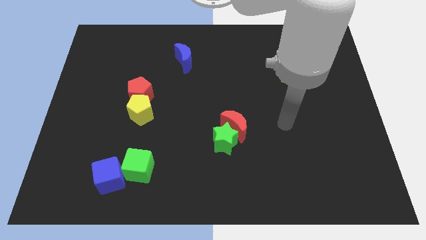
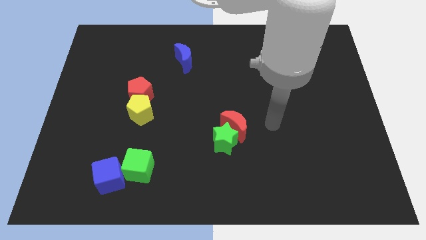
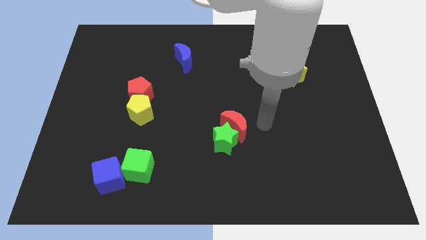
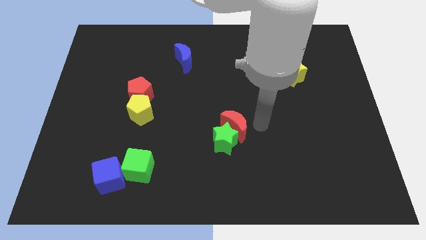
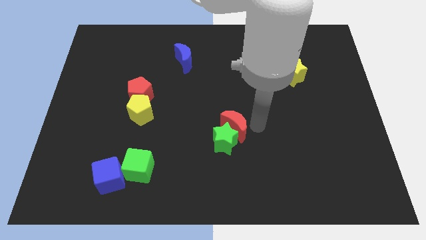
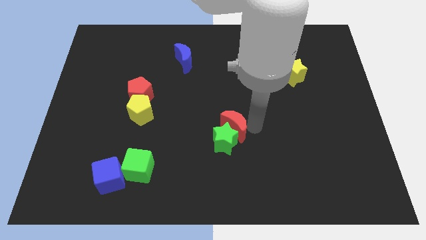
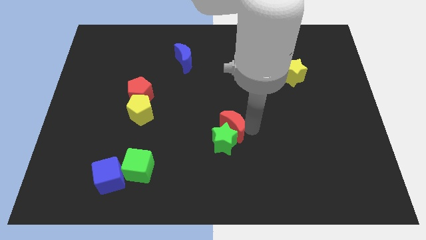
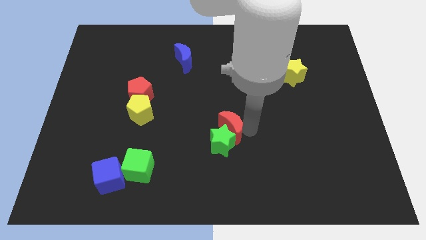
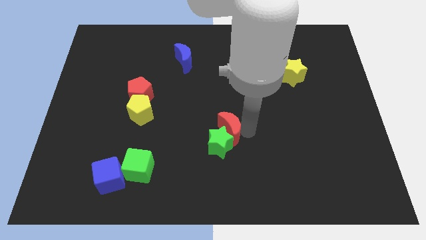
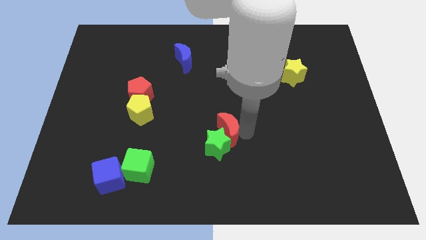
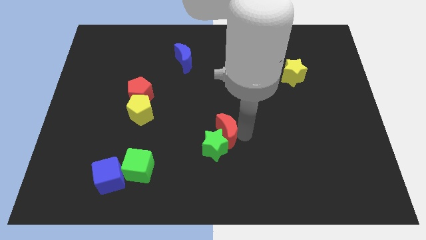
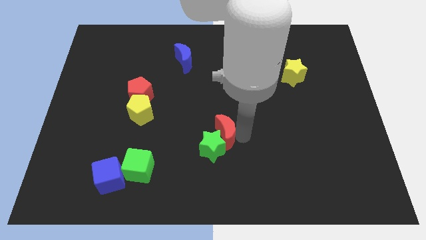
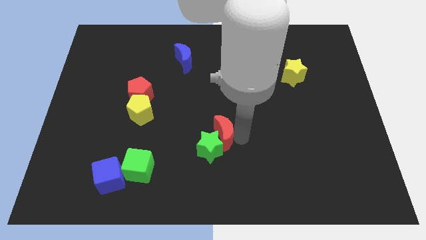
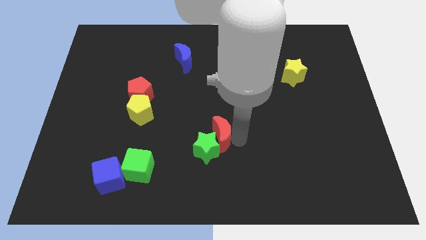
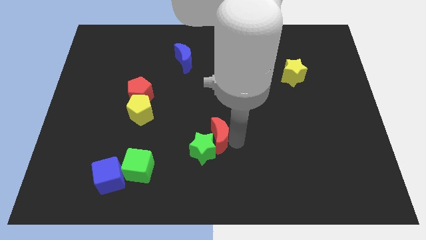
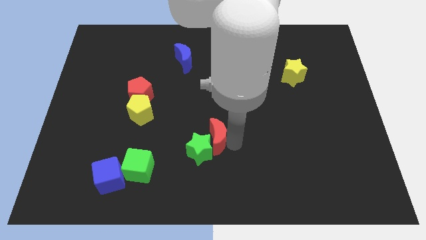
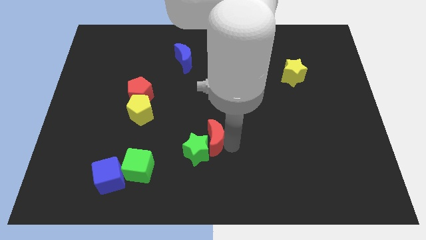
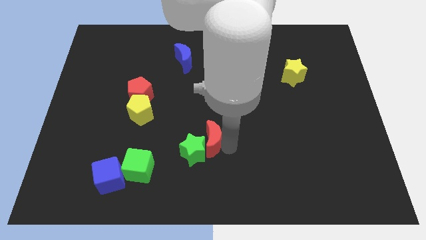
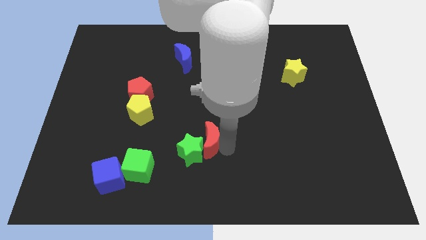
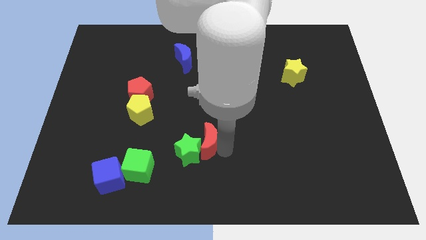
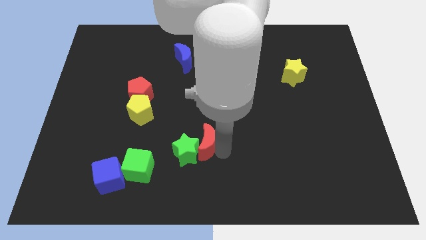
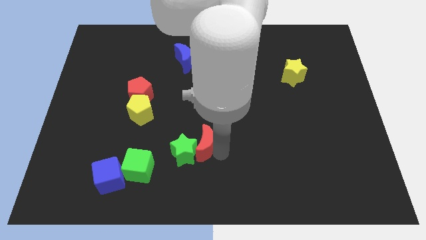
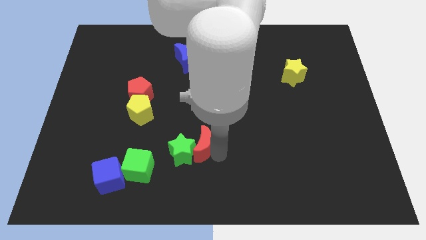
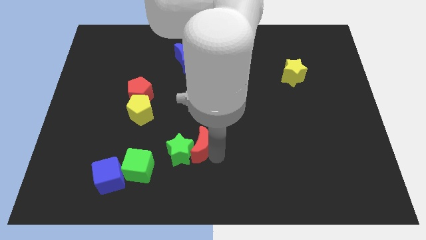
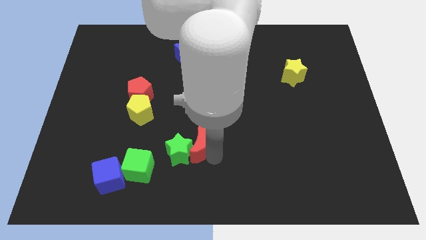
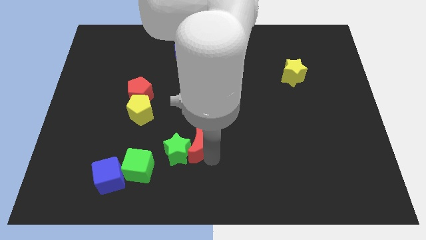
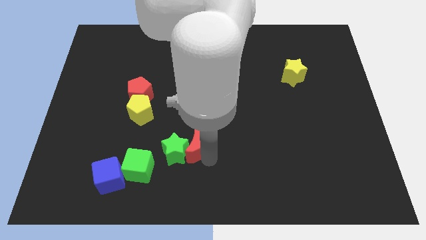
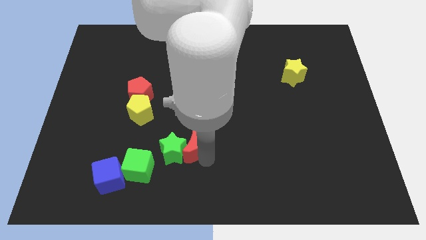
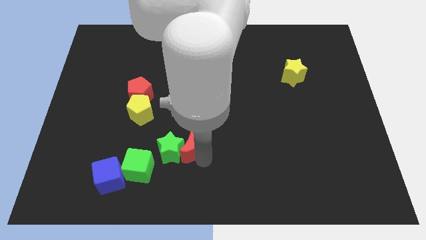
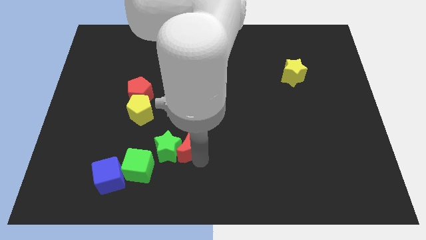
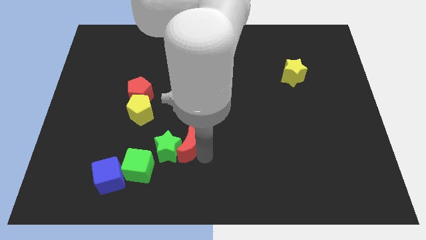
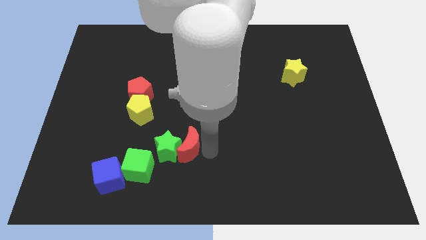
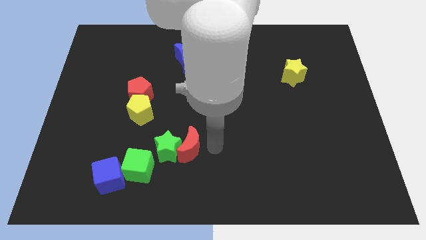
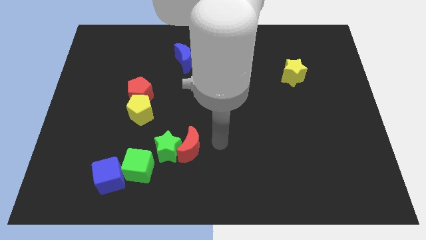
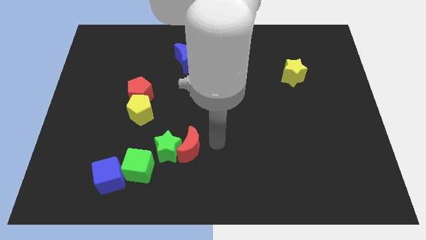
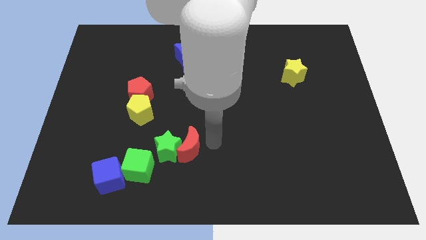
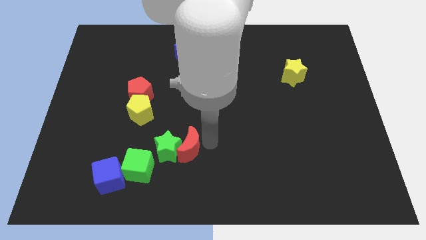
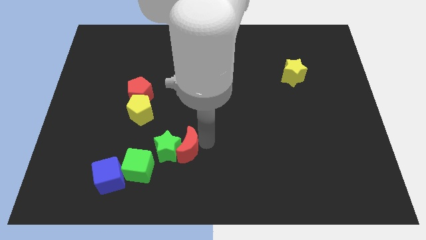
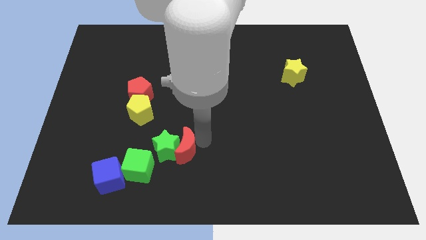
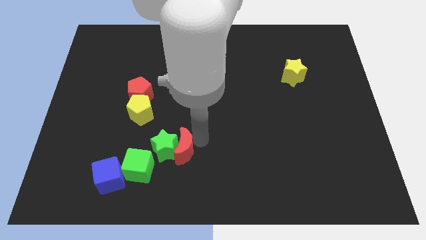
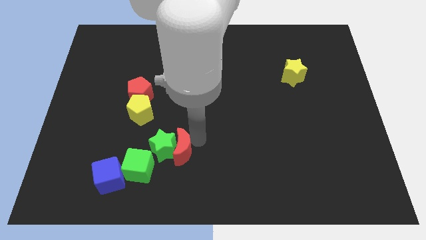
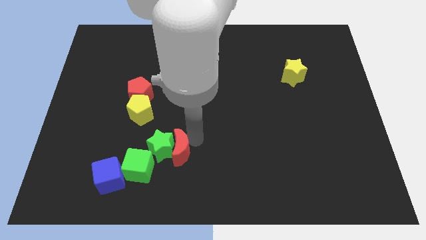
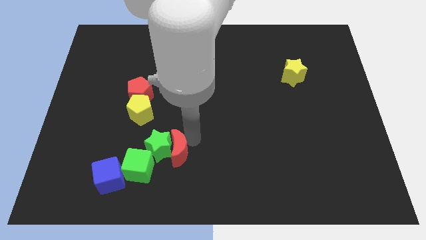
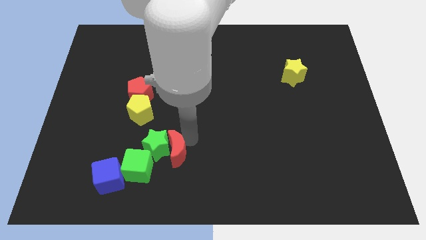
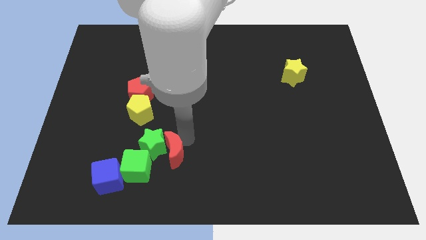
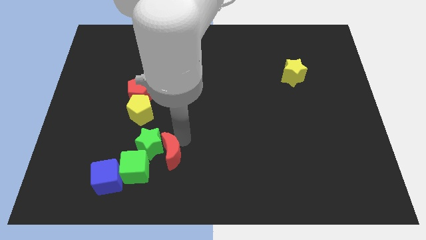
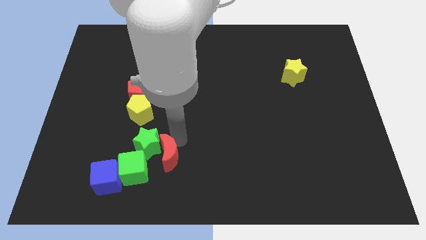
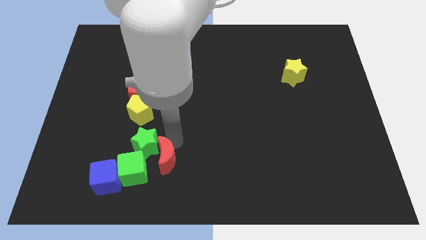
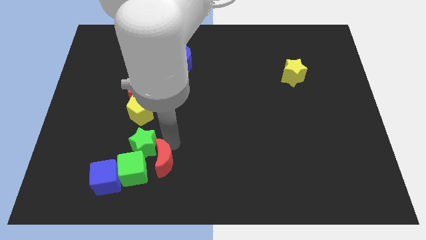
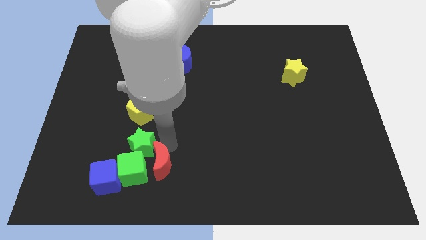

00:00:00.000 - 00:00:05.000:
move the red moon to the green cube

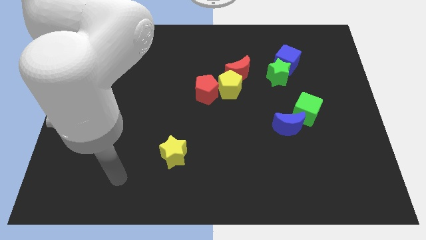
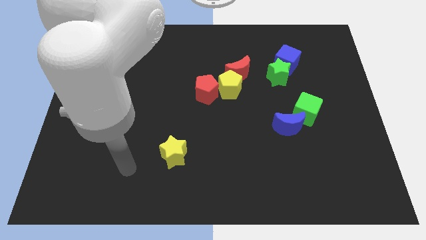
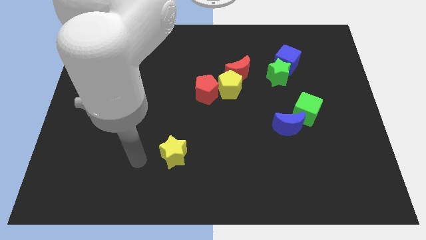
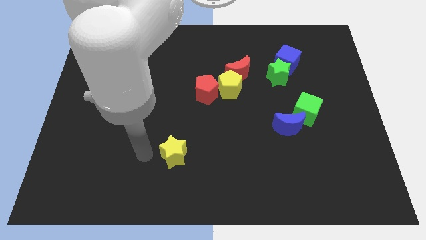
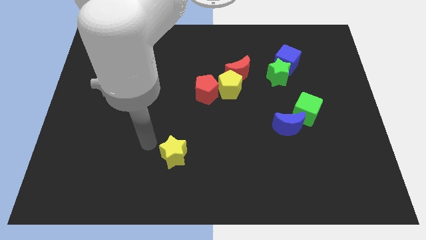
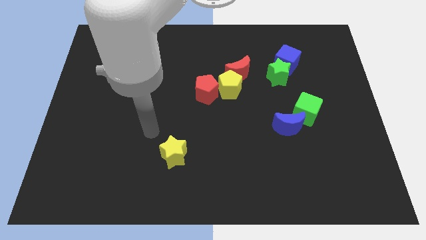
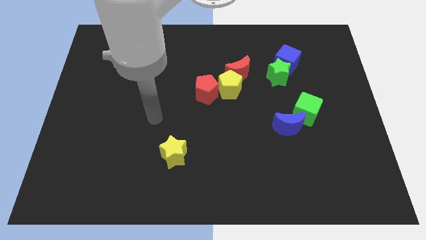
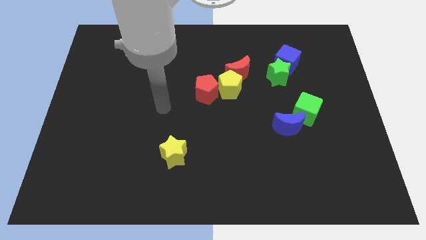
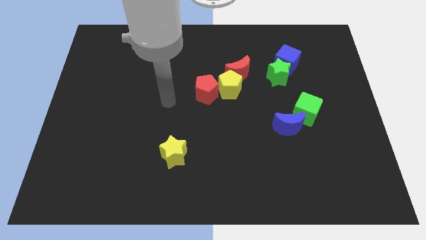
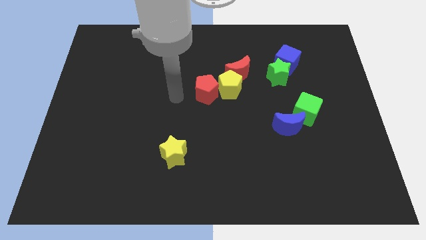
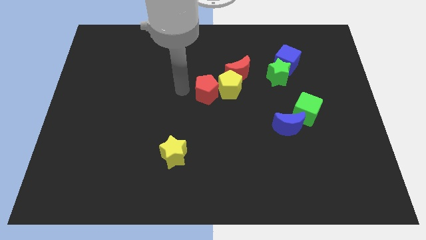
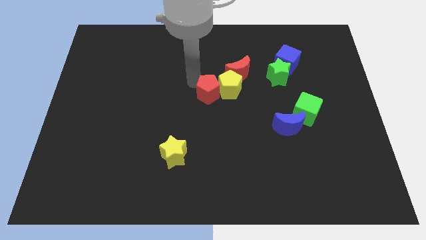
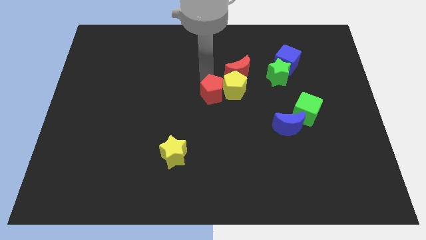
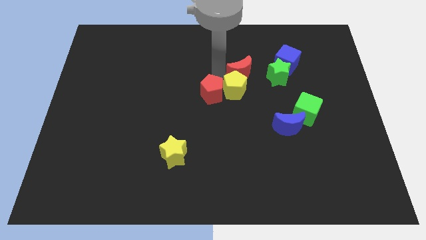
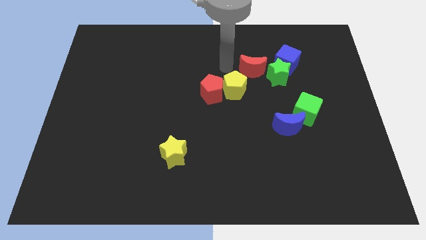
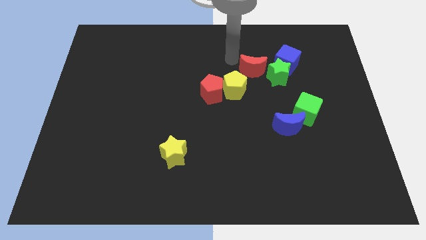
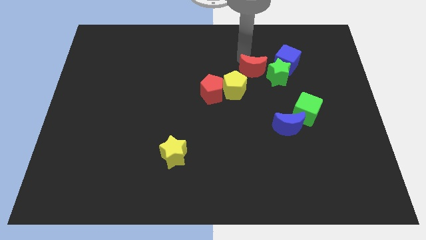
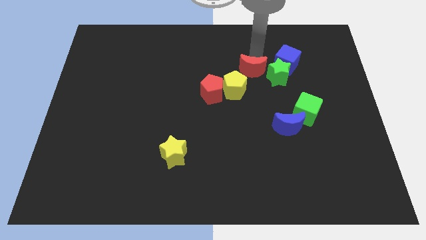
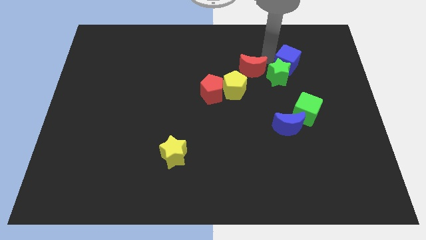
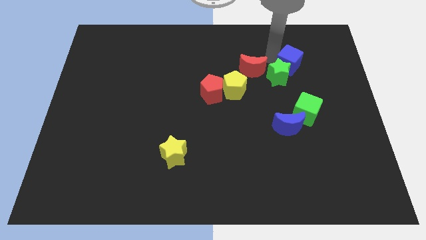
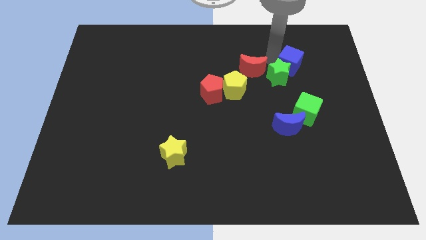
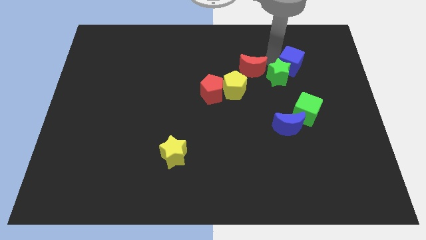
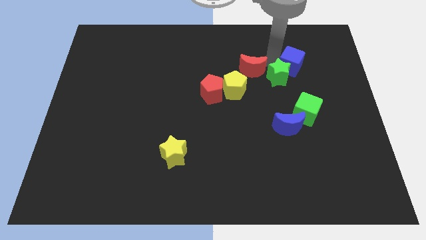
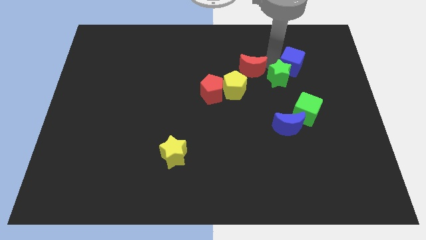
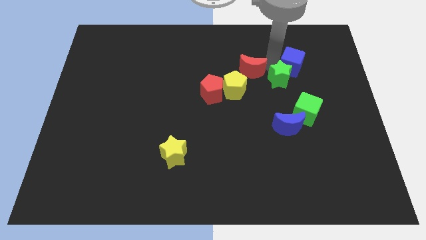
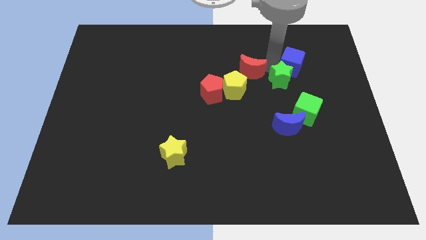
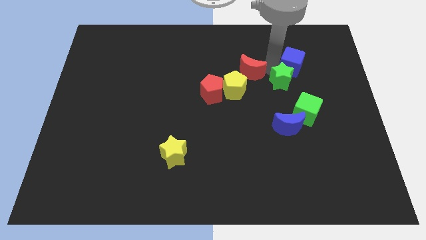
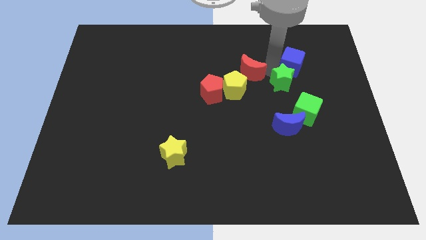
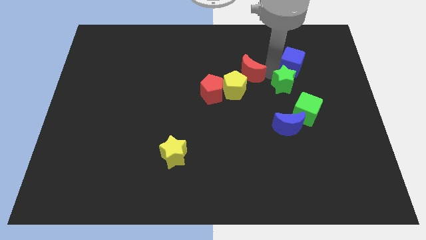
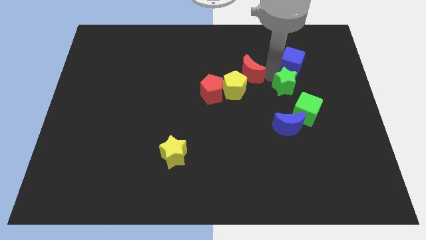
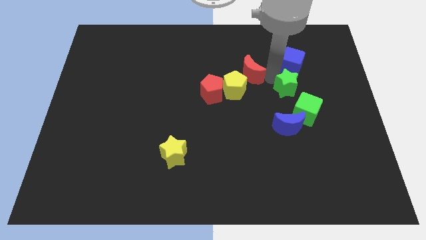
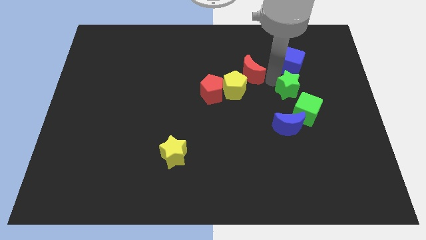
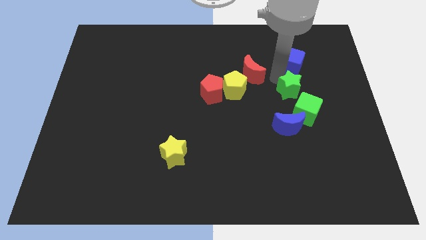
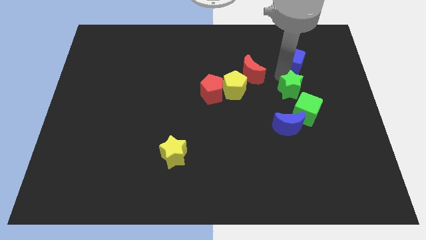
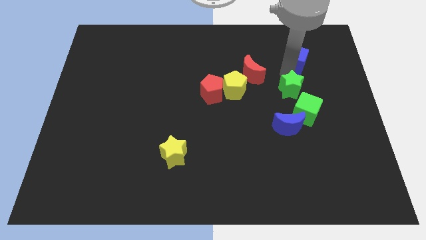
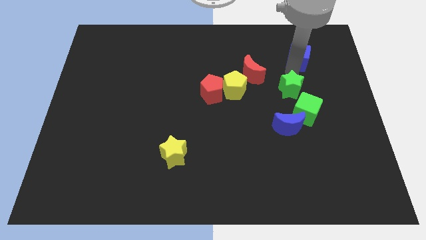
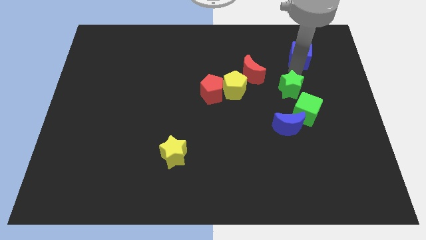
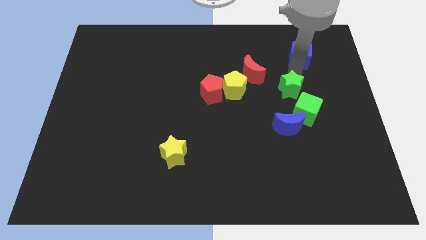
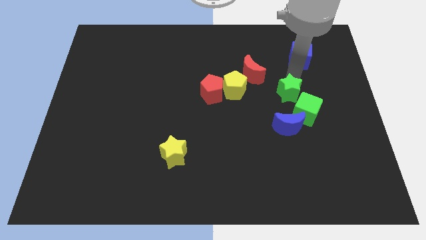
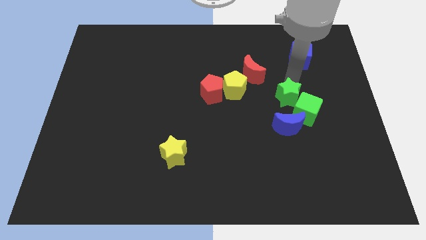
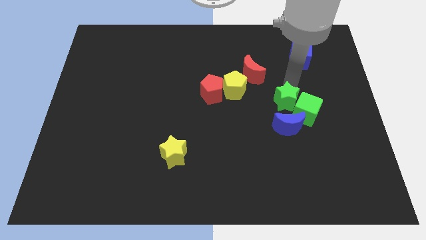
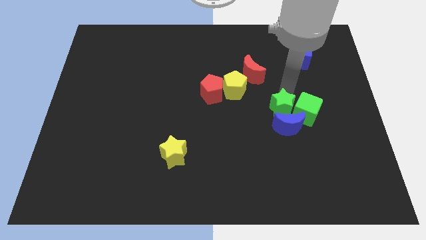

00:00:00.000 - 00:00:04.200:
push the green star towards the blue moon
